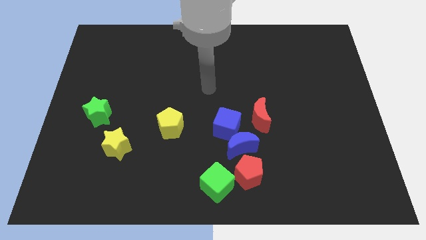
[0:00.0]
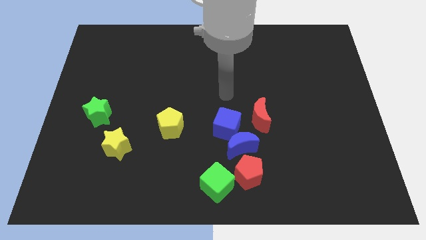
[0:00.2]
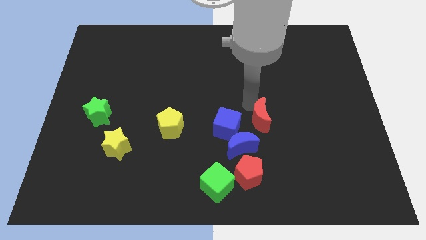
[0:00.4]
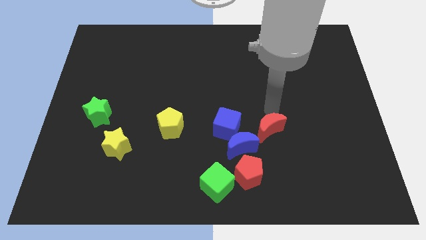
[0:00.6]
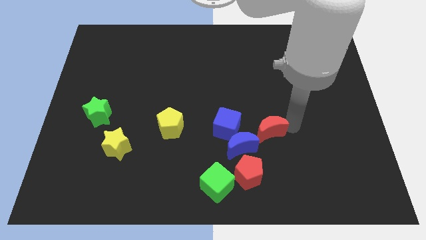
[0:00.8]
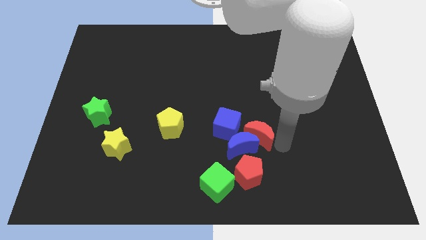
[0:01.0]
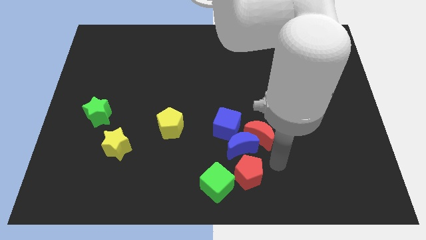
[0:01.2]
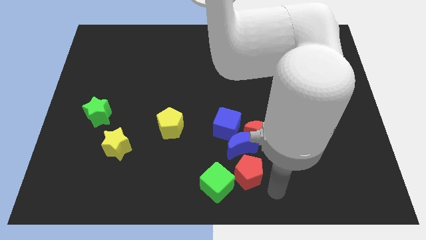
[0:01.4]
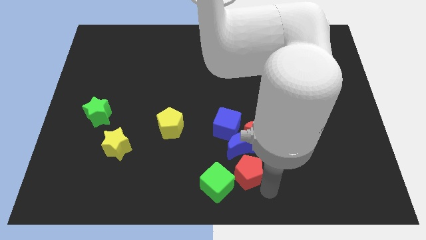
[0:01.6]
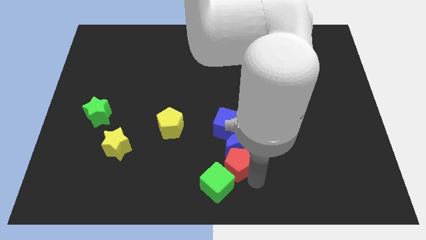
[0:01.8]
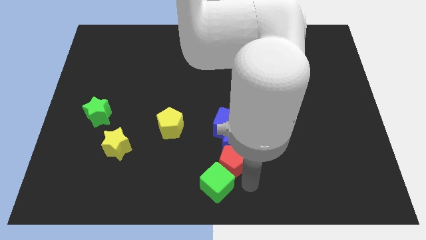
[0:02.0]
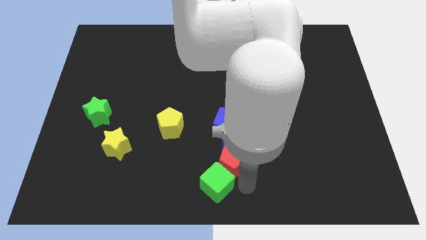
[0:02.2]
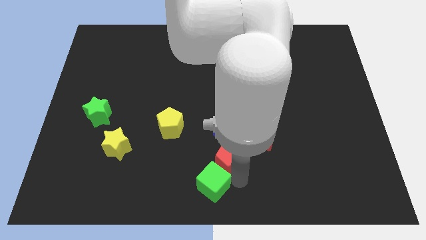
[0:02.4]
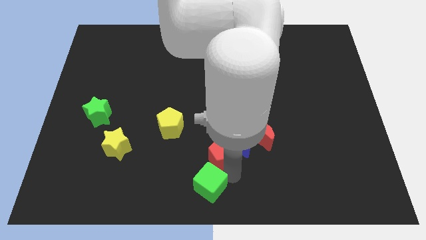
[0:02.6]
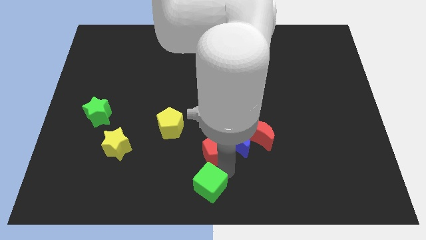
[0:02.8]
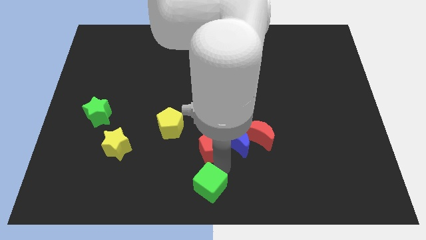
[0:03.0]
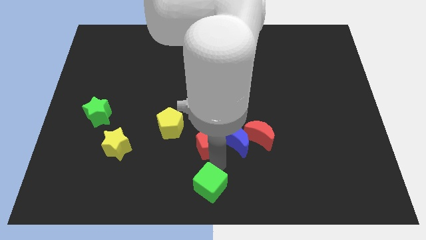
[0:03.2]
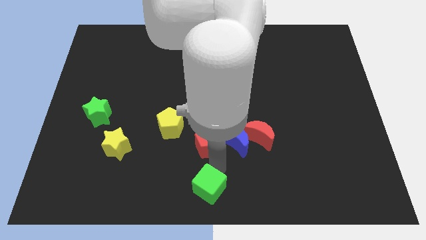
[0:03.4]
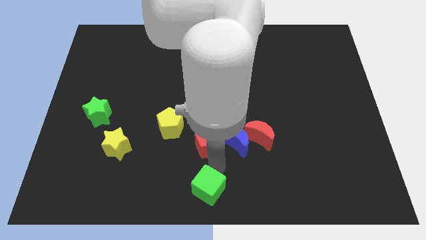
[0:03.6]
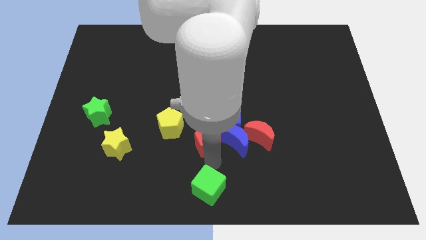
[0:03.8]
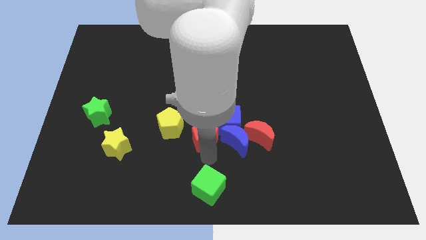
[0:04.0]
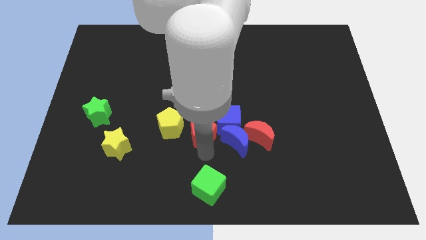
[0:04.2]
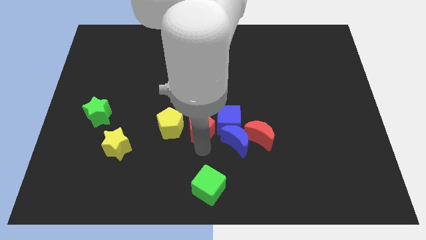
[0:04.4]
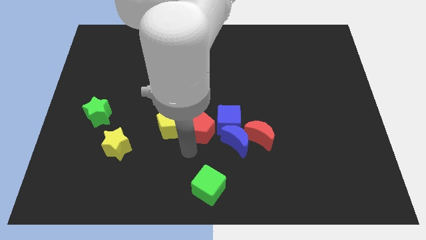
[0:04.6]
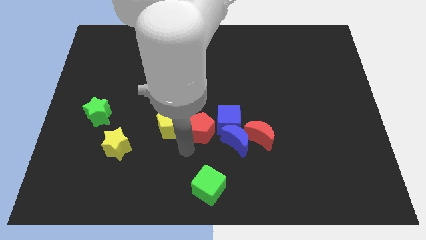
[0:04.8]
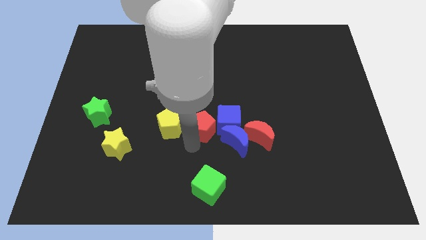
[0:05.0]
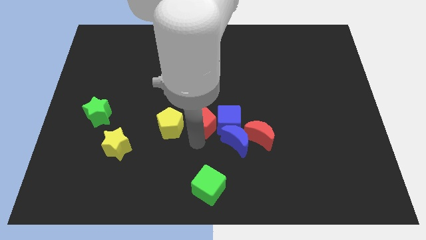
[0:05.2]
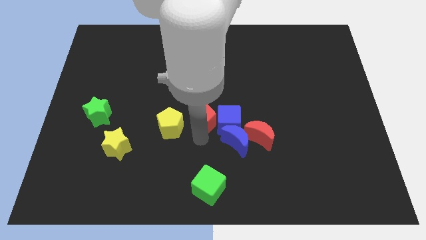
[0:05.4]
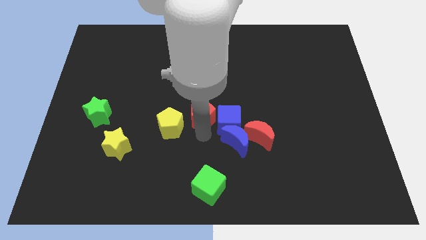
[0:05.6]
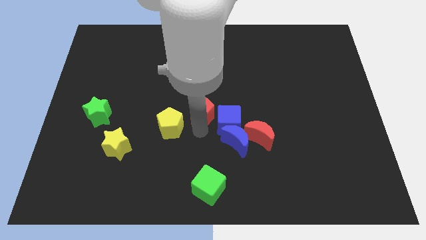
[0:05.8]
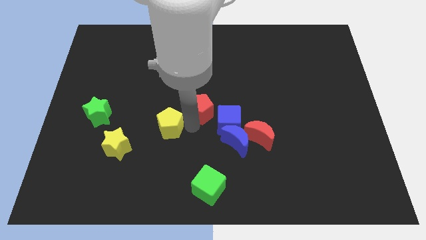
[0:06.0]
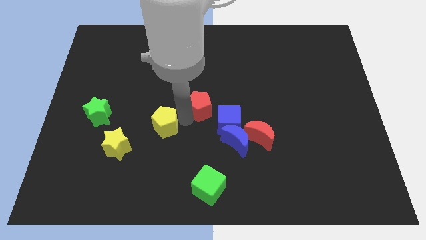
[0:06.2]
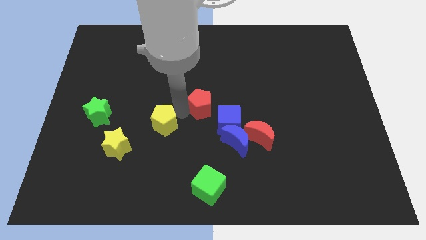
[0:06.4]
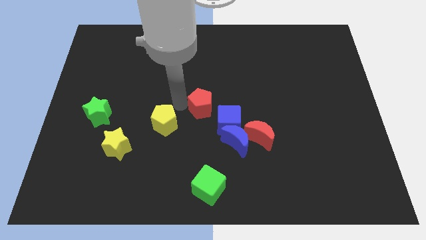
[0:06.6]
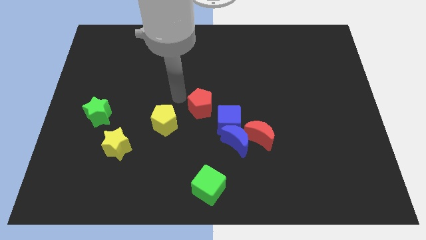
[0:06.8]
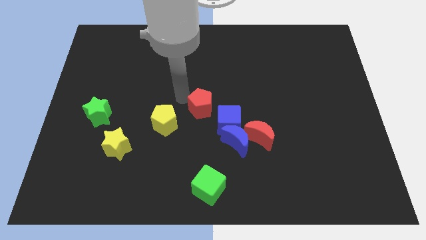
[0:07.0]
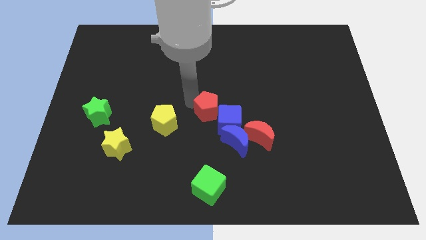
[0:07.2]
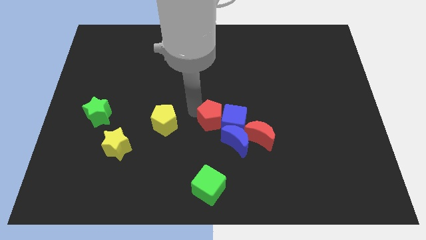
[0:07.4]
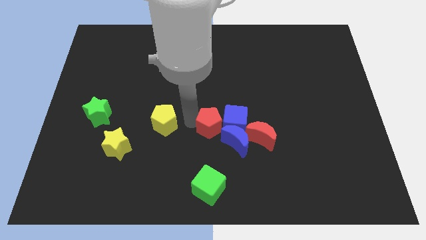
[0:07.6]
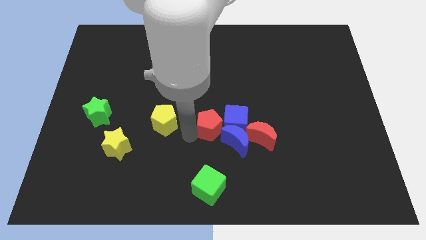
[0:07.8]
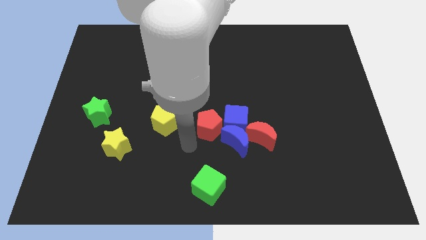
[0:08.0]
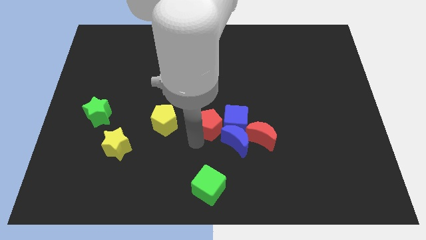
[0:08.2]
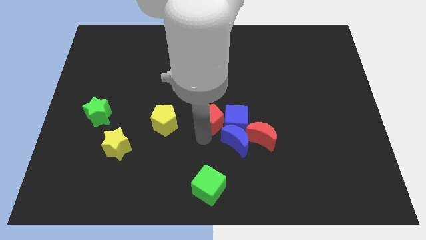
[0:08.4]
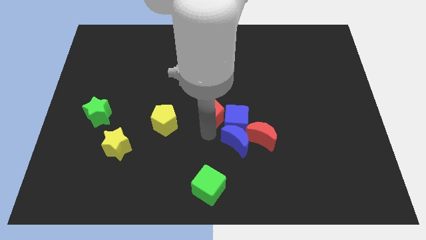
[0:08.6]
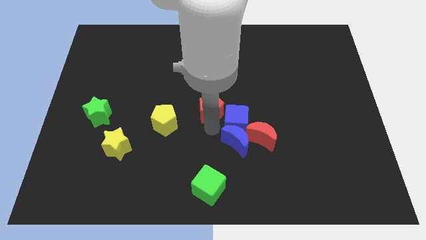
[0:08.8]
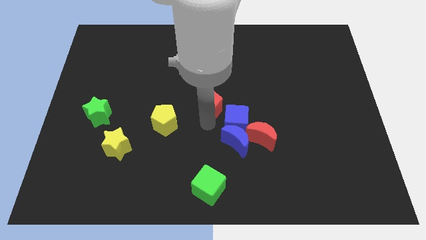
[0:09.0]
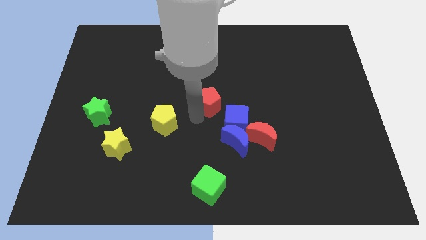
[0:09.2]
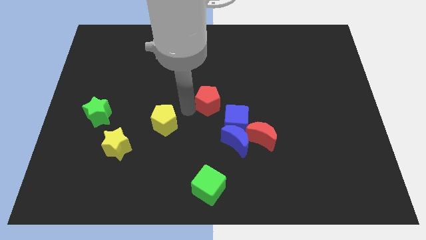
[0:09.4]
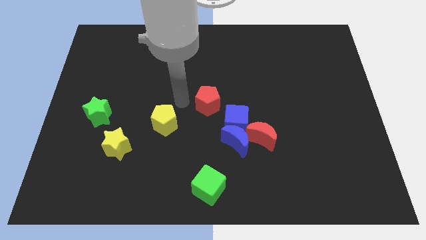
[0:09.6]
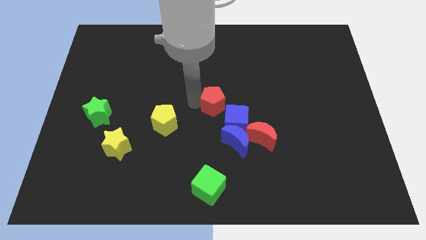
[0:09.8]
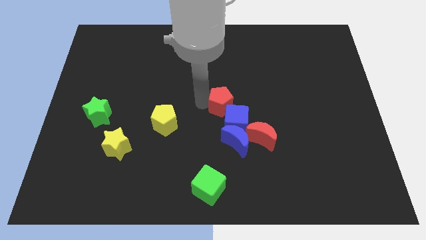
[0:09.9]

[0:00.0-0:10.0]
push the red pentagon above the blue moon

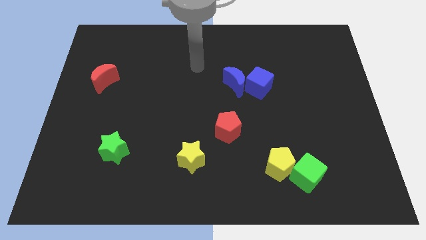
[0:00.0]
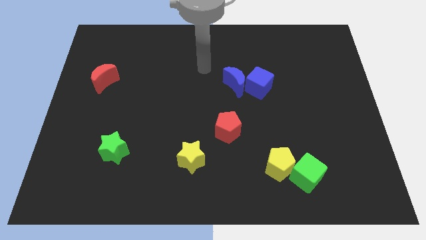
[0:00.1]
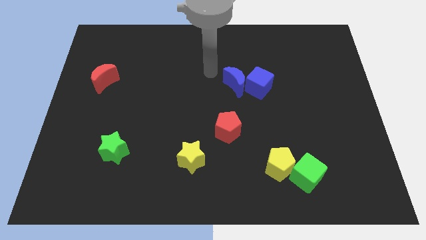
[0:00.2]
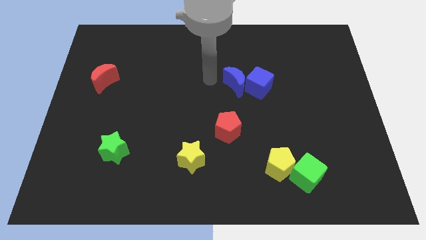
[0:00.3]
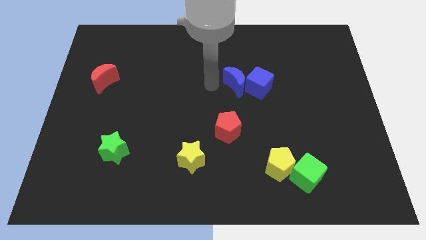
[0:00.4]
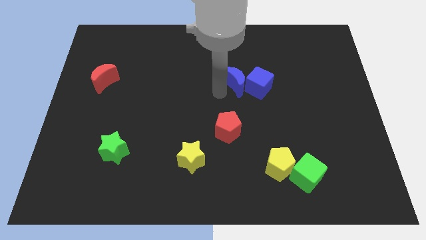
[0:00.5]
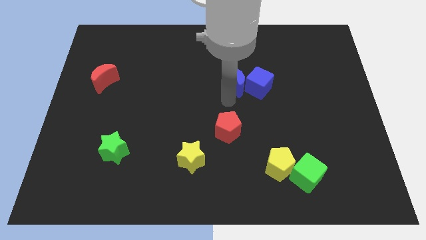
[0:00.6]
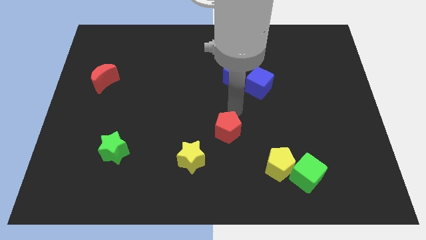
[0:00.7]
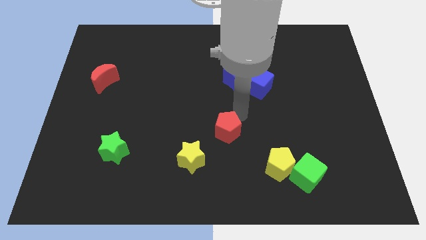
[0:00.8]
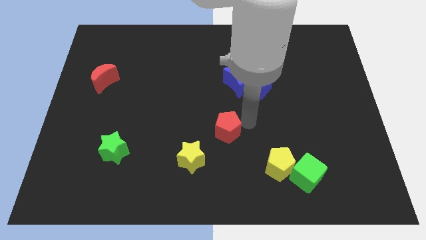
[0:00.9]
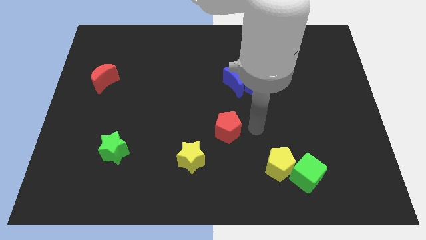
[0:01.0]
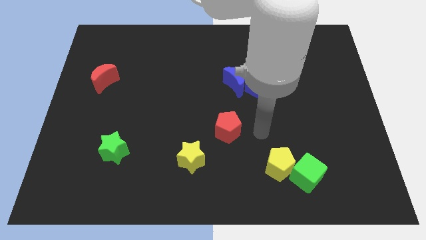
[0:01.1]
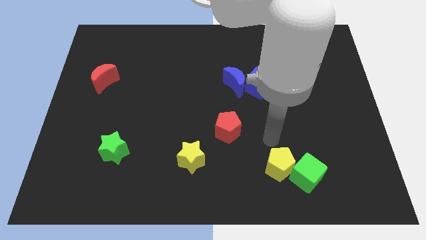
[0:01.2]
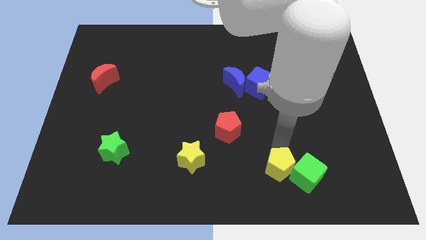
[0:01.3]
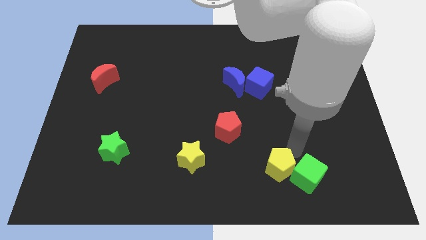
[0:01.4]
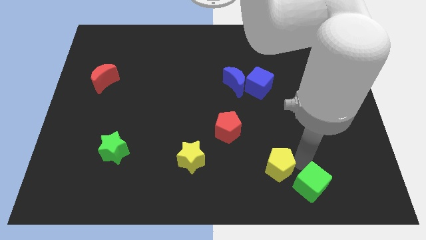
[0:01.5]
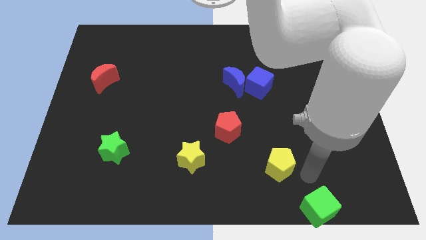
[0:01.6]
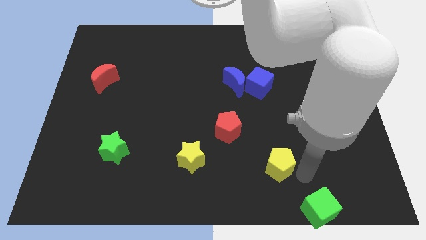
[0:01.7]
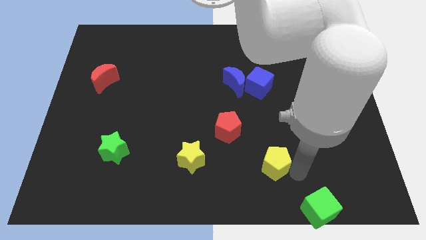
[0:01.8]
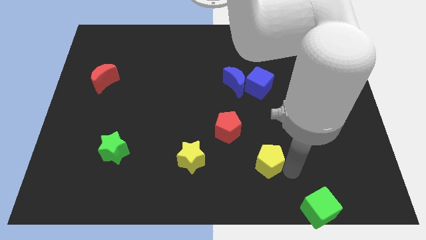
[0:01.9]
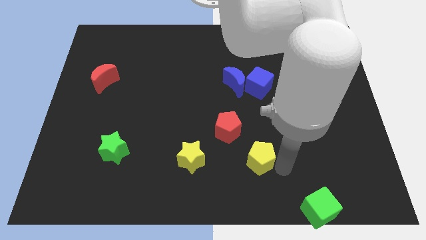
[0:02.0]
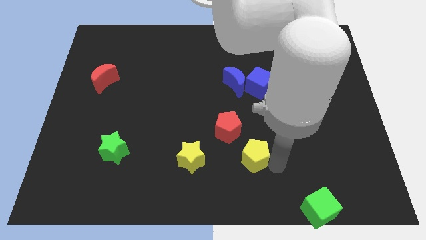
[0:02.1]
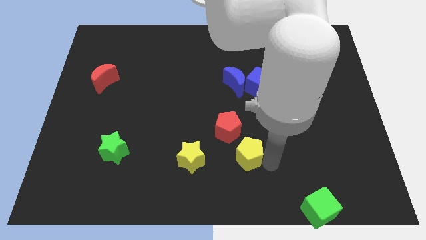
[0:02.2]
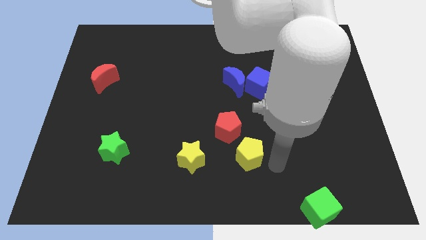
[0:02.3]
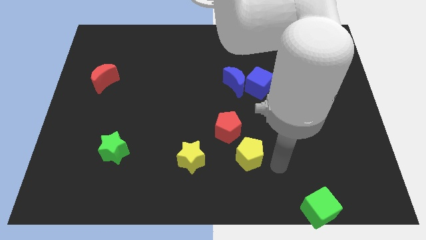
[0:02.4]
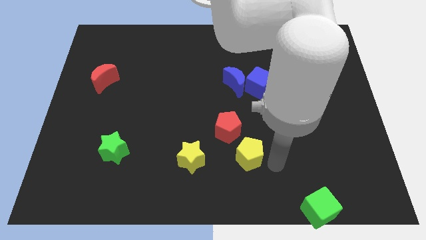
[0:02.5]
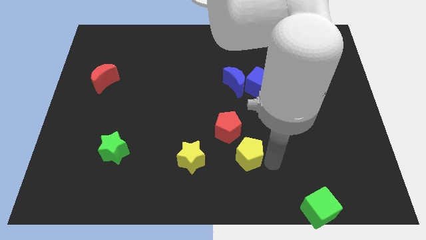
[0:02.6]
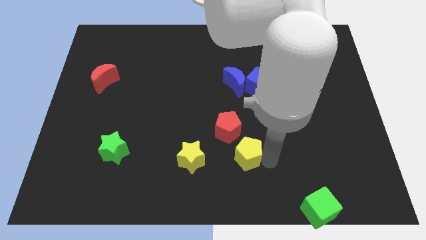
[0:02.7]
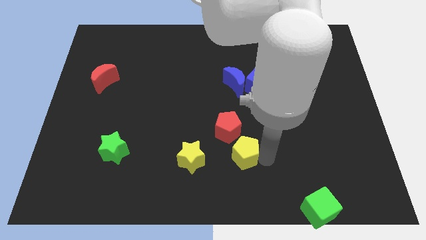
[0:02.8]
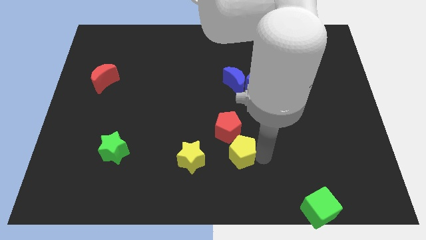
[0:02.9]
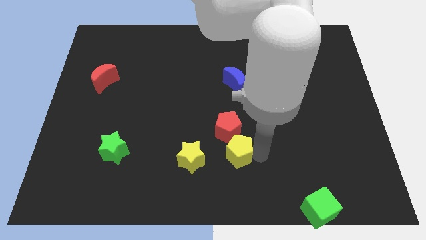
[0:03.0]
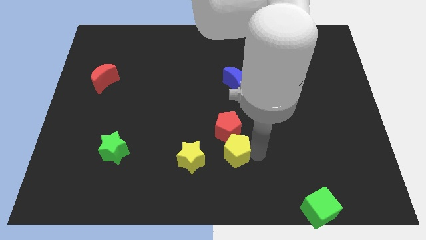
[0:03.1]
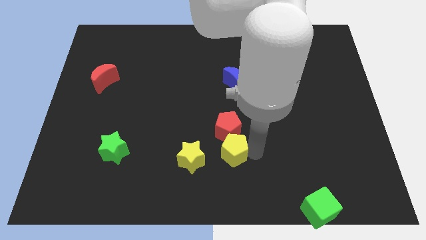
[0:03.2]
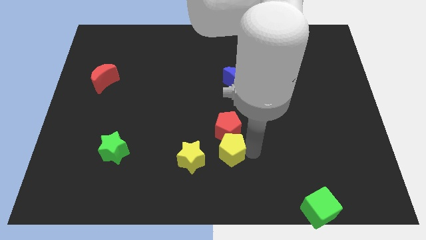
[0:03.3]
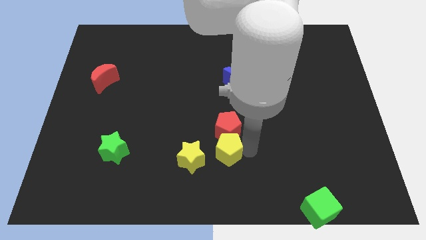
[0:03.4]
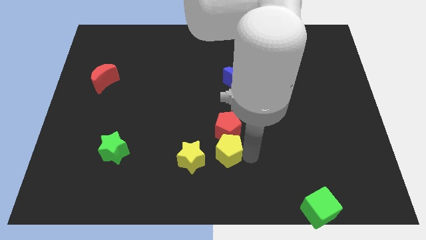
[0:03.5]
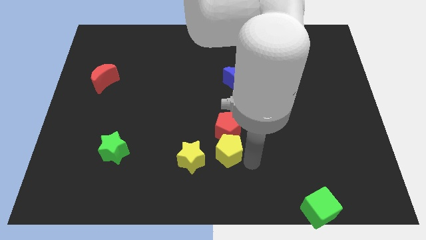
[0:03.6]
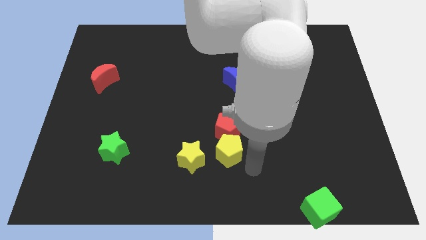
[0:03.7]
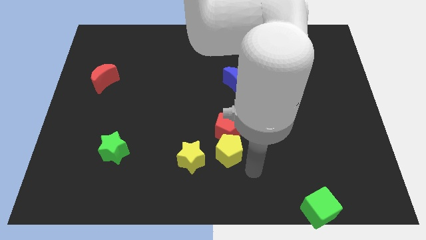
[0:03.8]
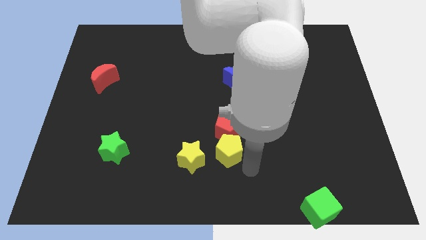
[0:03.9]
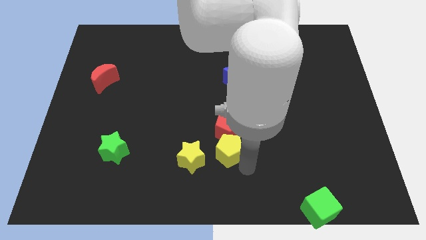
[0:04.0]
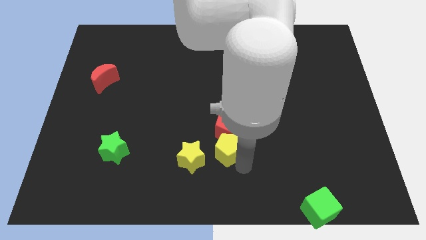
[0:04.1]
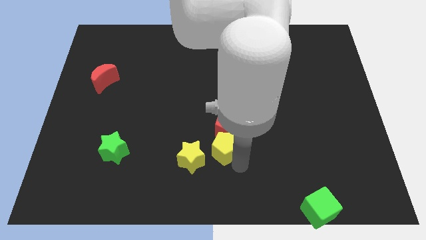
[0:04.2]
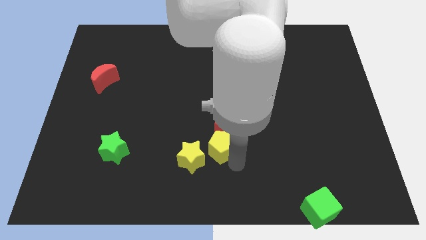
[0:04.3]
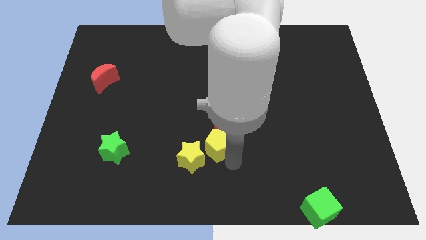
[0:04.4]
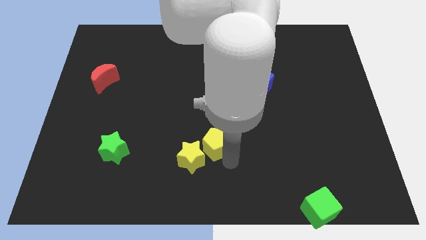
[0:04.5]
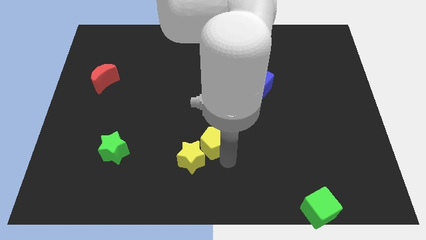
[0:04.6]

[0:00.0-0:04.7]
push the yellow pentagon to the top of the yellow star
